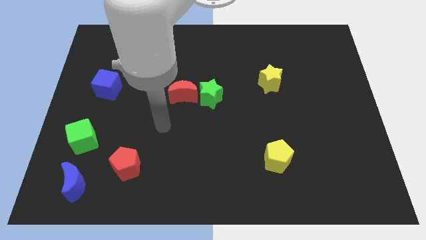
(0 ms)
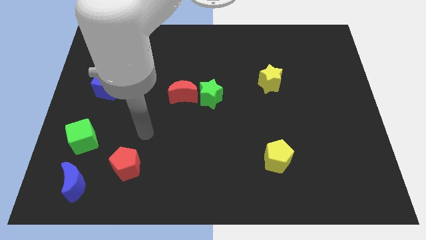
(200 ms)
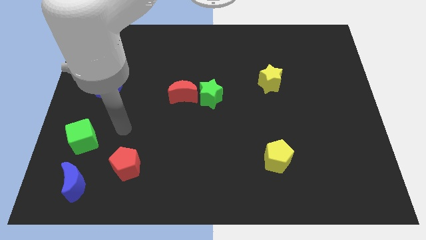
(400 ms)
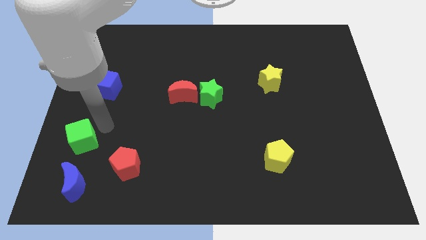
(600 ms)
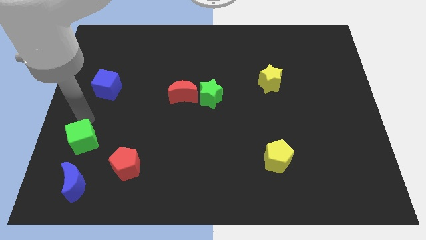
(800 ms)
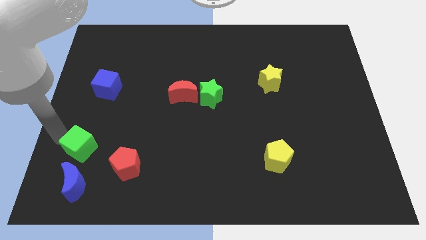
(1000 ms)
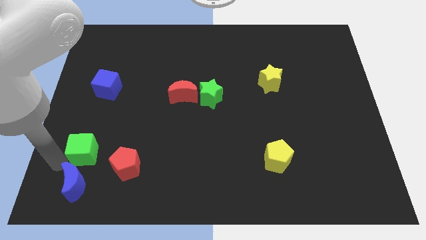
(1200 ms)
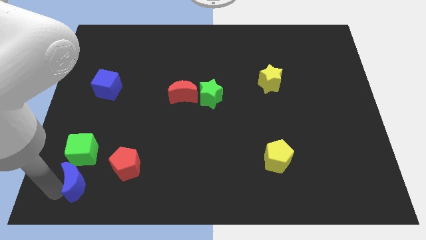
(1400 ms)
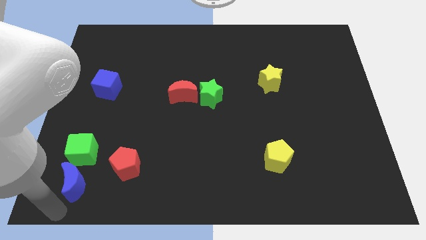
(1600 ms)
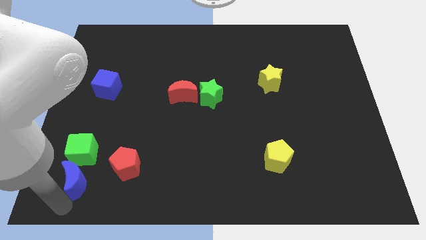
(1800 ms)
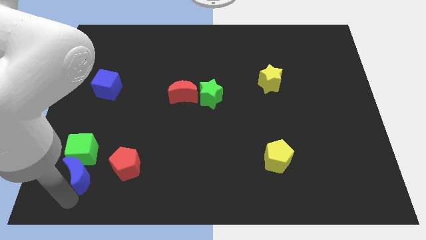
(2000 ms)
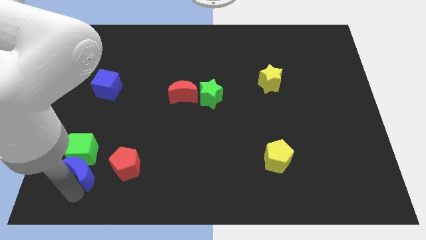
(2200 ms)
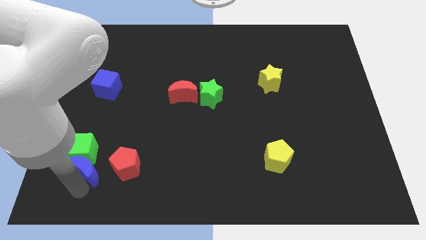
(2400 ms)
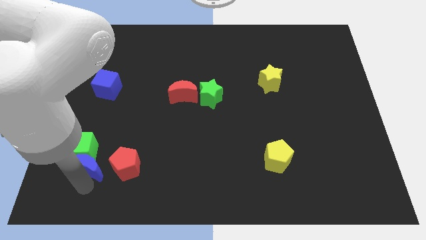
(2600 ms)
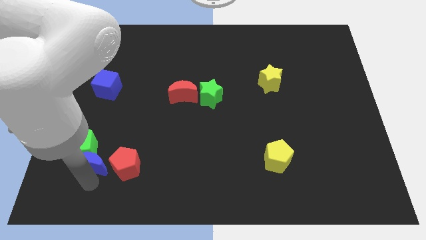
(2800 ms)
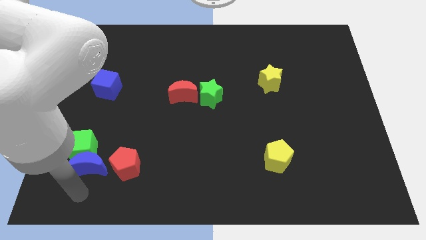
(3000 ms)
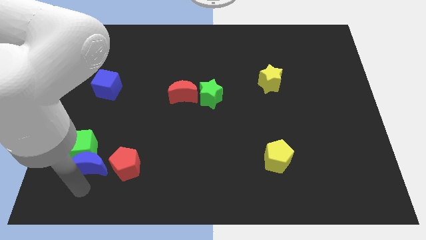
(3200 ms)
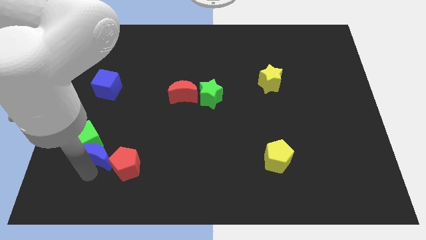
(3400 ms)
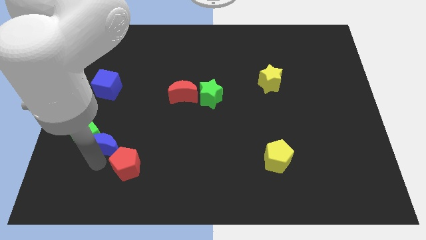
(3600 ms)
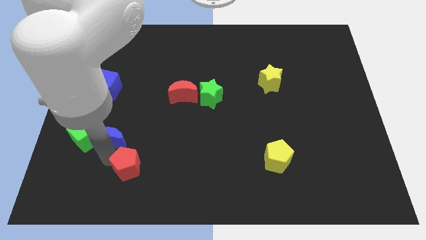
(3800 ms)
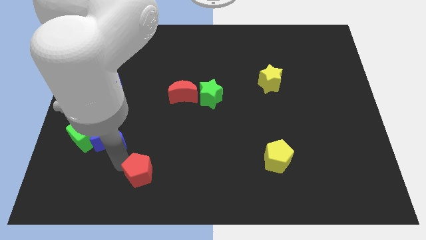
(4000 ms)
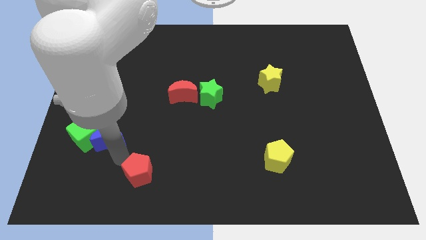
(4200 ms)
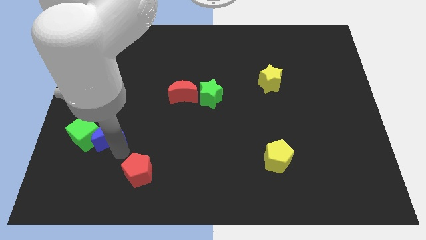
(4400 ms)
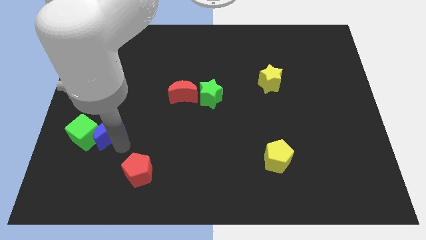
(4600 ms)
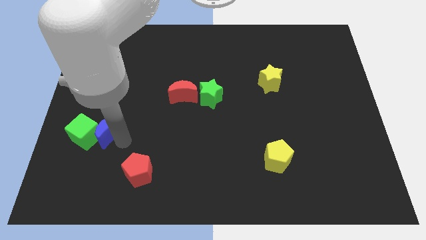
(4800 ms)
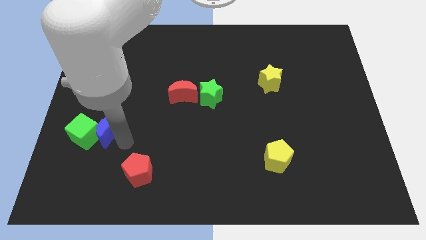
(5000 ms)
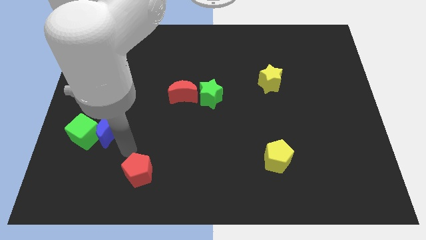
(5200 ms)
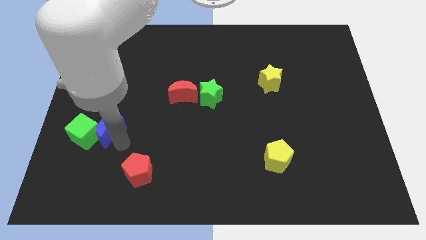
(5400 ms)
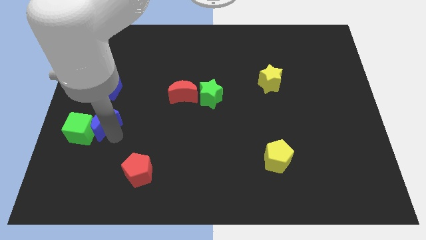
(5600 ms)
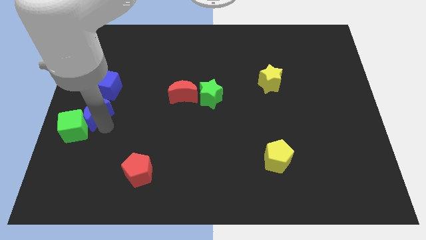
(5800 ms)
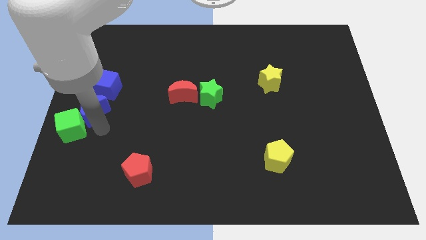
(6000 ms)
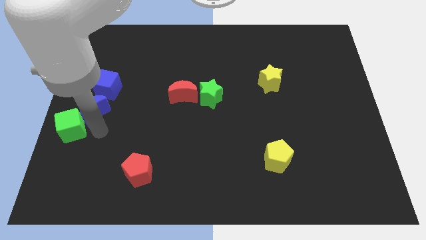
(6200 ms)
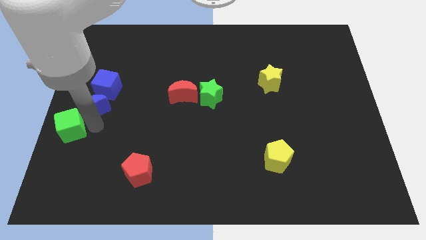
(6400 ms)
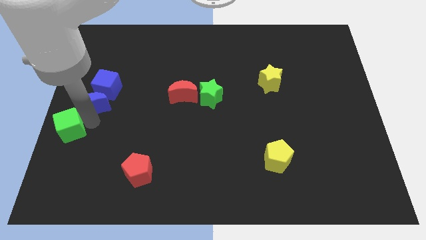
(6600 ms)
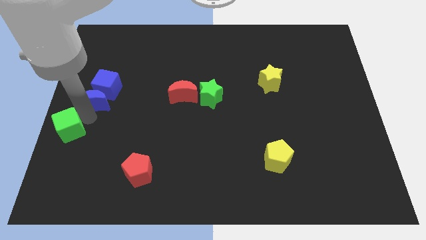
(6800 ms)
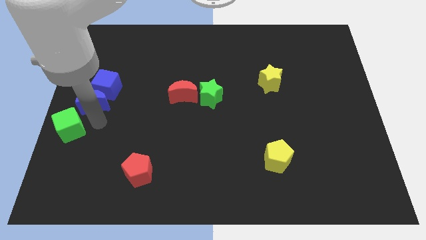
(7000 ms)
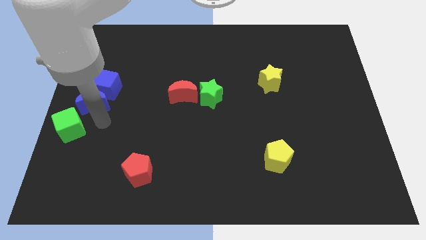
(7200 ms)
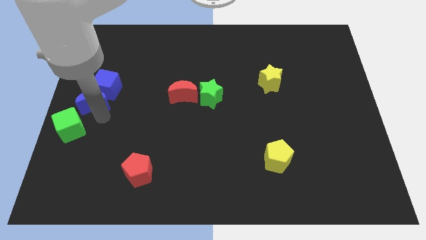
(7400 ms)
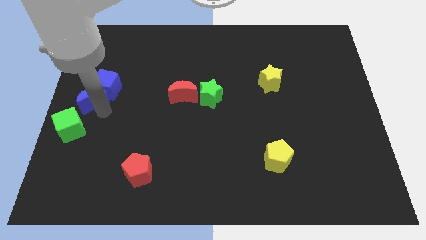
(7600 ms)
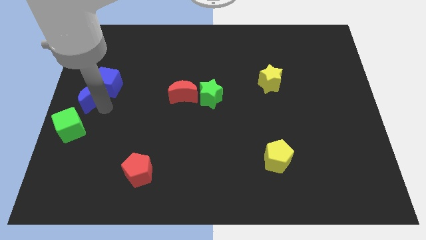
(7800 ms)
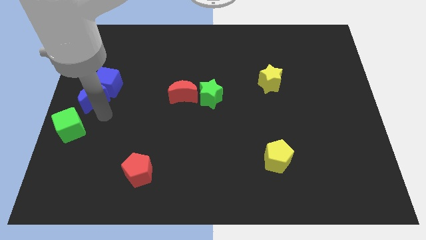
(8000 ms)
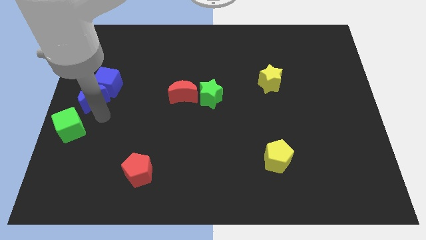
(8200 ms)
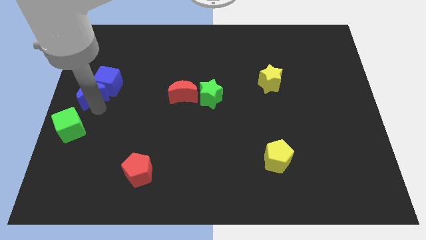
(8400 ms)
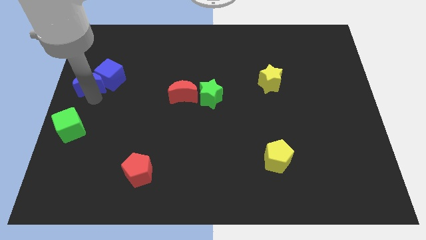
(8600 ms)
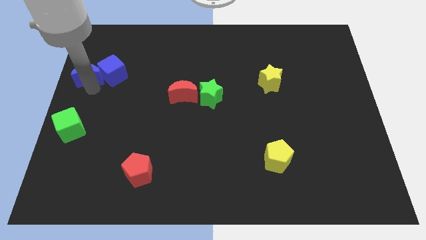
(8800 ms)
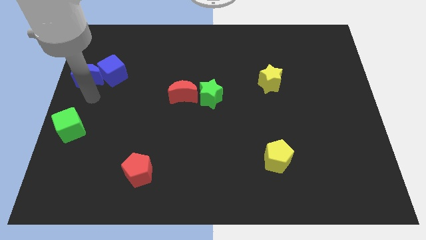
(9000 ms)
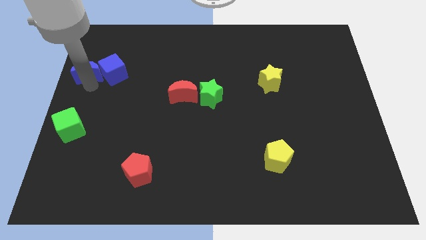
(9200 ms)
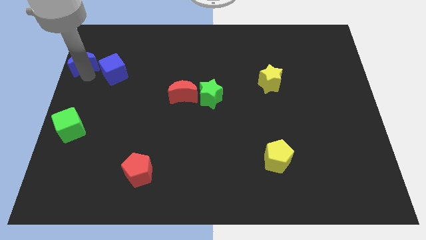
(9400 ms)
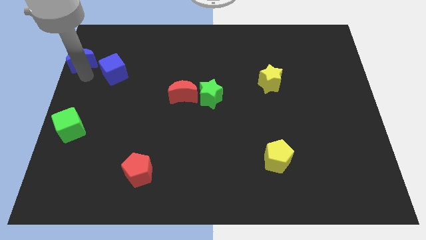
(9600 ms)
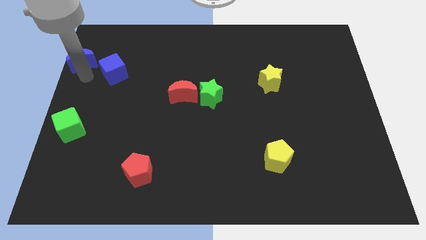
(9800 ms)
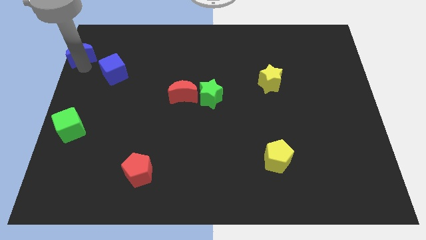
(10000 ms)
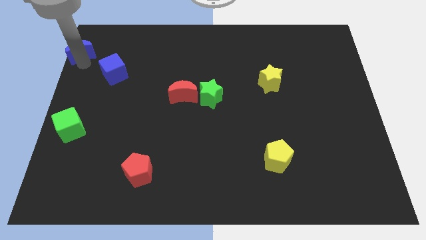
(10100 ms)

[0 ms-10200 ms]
push the blue moon to the top left of the board

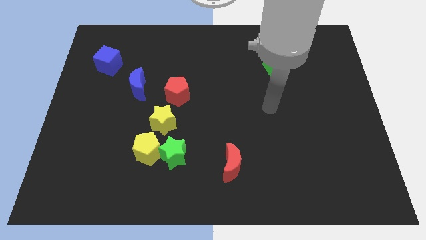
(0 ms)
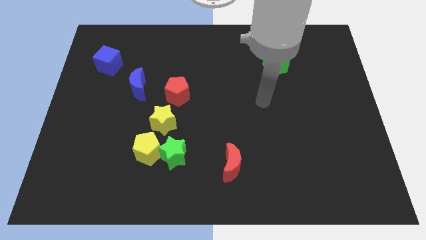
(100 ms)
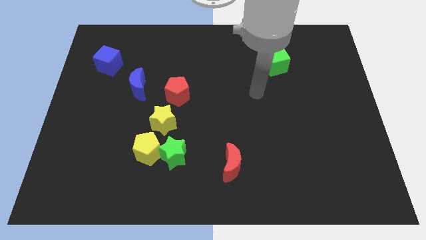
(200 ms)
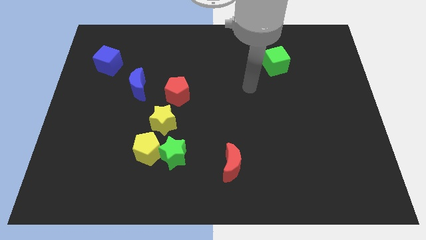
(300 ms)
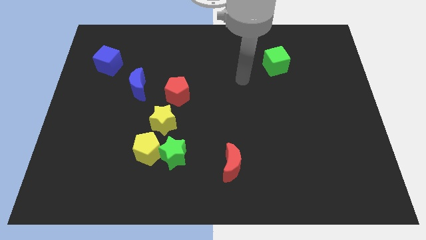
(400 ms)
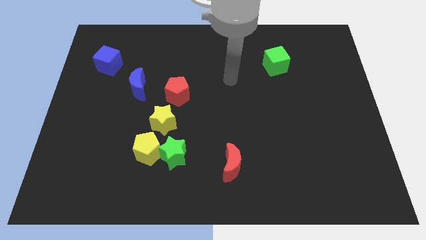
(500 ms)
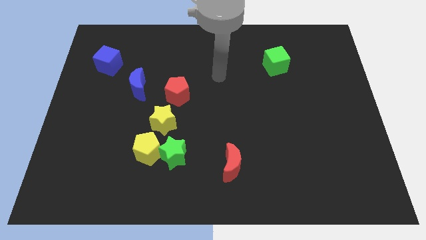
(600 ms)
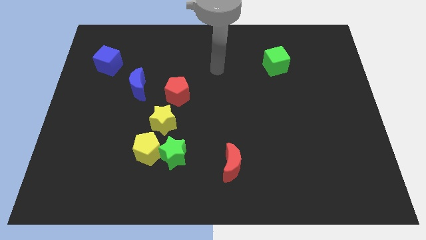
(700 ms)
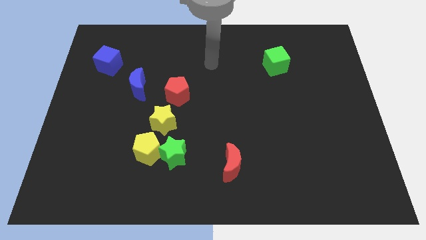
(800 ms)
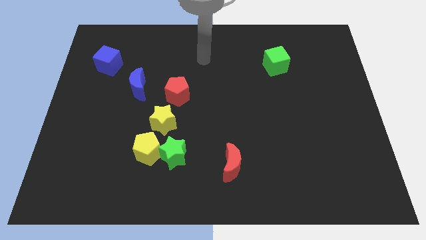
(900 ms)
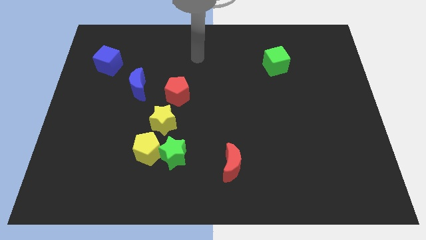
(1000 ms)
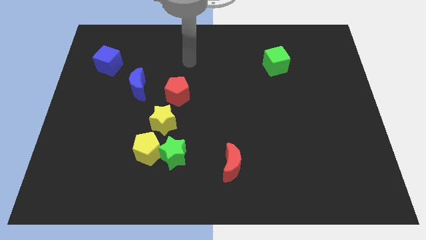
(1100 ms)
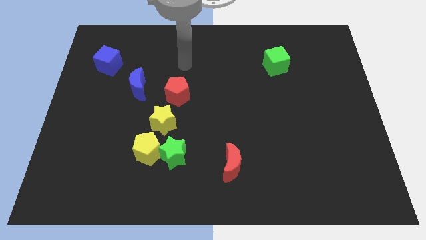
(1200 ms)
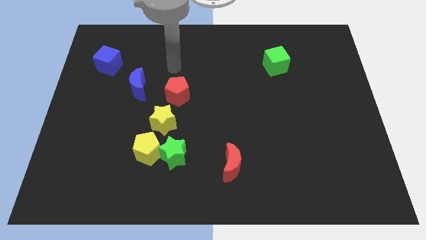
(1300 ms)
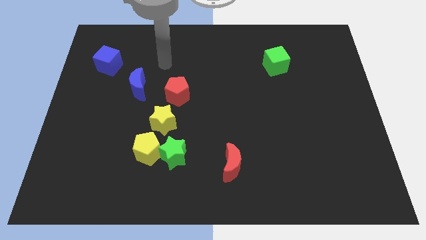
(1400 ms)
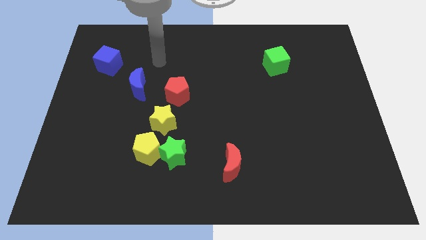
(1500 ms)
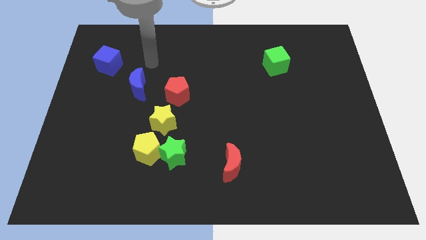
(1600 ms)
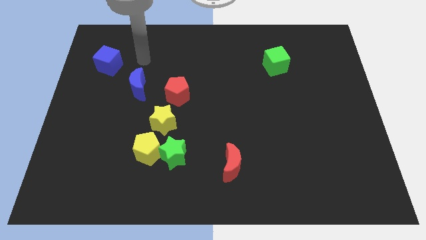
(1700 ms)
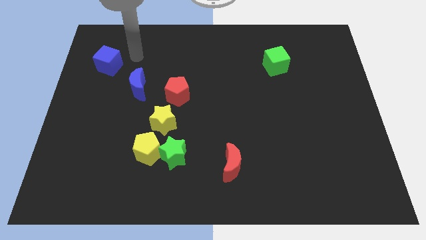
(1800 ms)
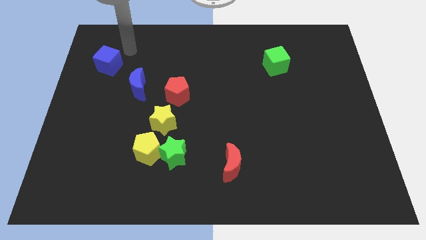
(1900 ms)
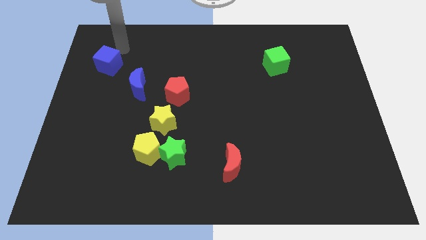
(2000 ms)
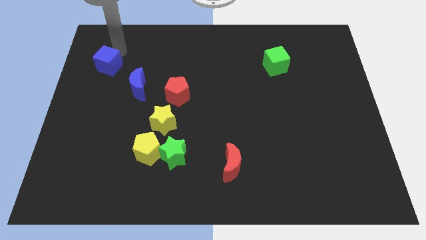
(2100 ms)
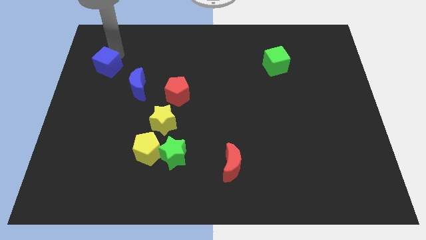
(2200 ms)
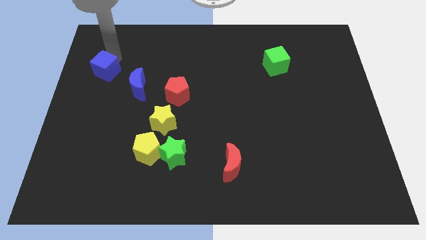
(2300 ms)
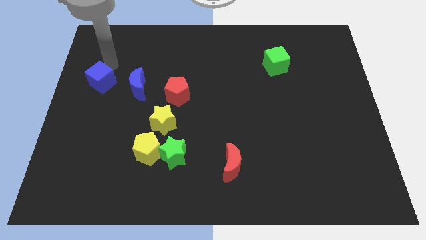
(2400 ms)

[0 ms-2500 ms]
push the blue cube to the center left
